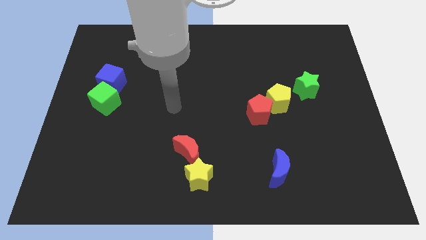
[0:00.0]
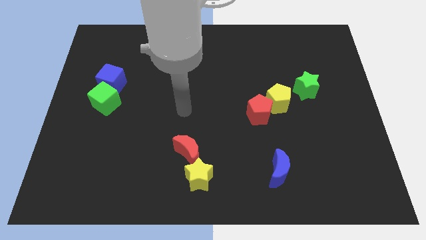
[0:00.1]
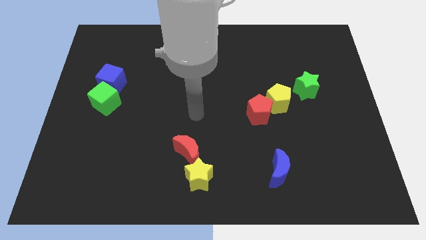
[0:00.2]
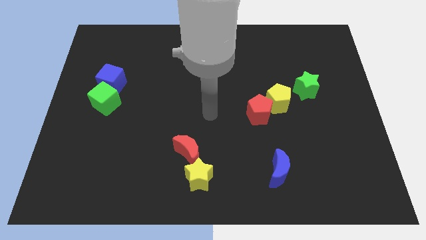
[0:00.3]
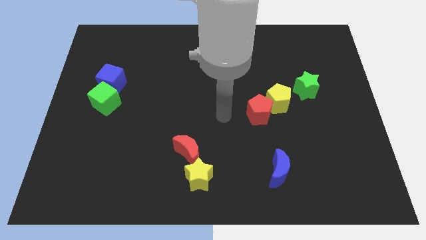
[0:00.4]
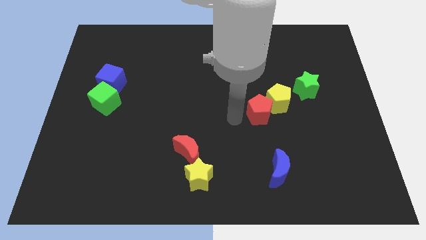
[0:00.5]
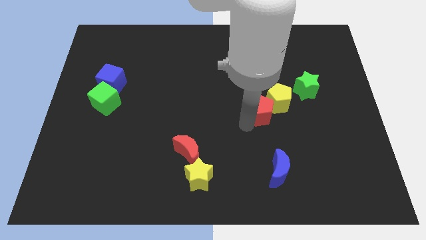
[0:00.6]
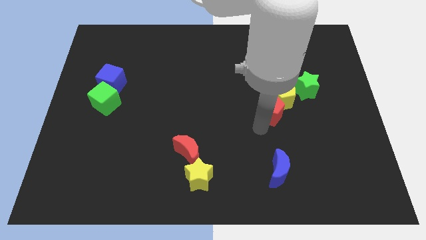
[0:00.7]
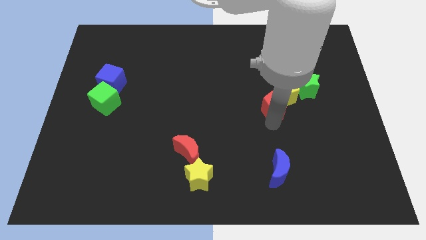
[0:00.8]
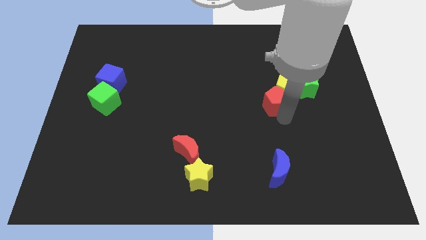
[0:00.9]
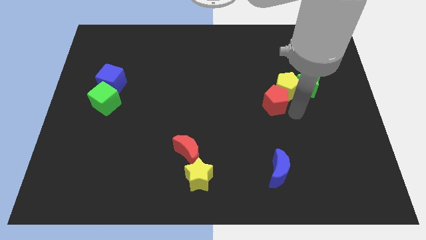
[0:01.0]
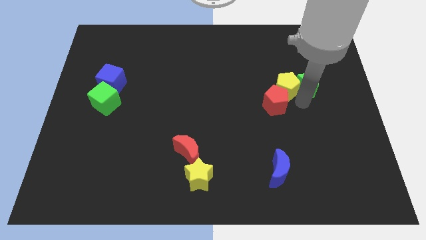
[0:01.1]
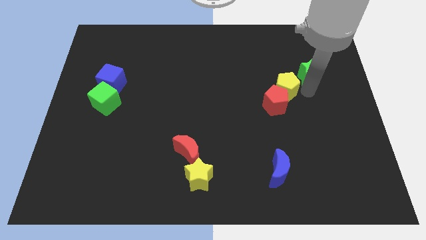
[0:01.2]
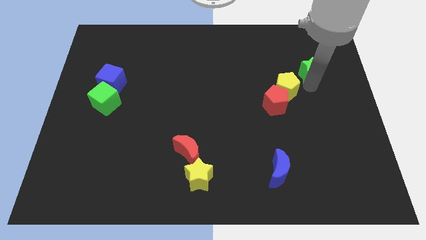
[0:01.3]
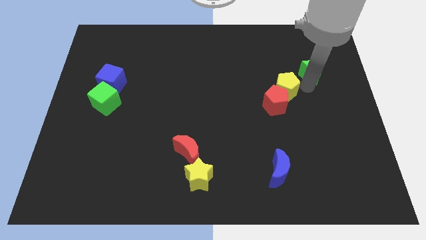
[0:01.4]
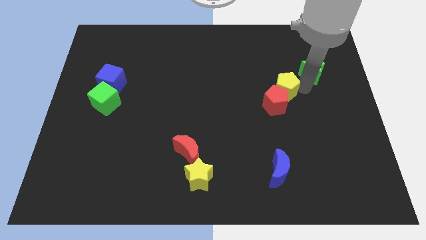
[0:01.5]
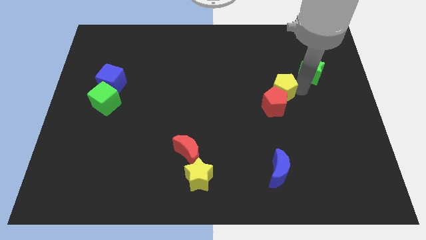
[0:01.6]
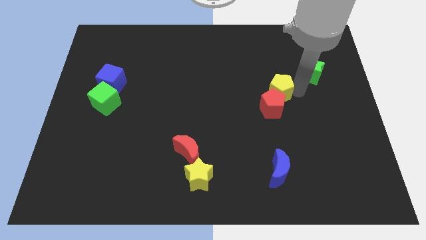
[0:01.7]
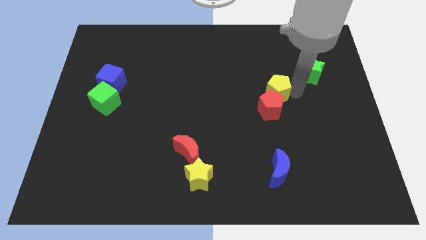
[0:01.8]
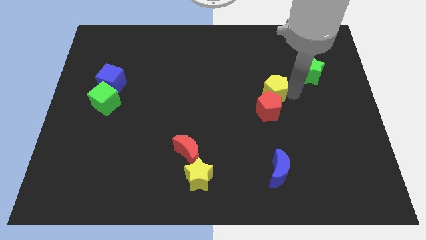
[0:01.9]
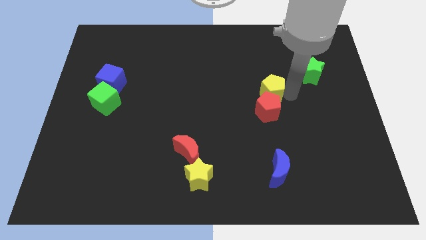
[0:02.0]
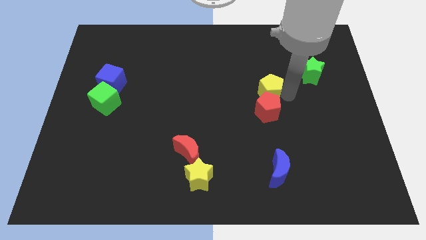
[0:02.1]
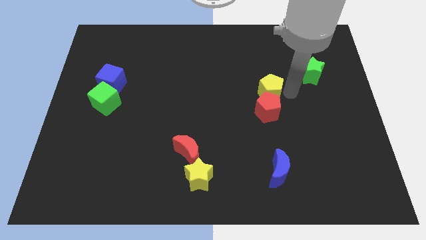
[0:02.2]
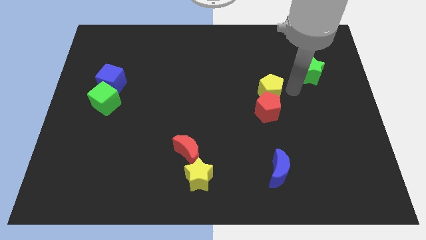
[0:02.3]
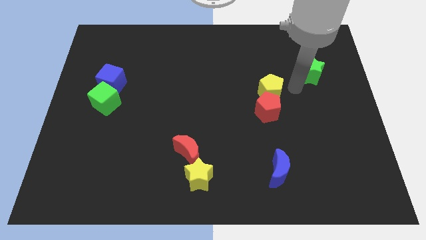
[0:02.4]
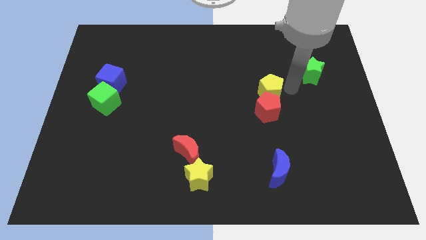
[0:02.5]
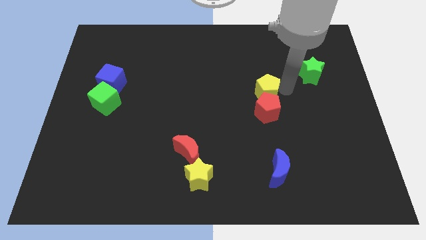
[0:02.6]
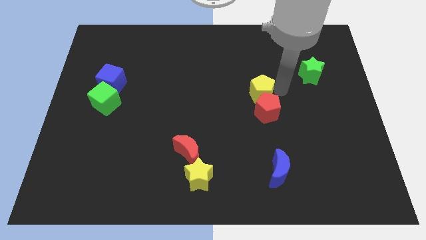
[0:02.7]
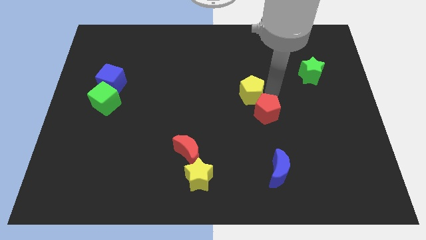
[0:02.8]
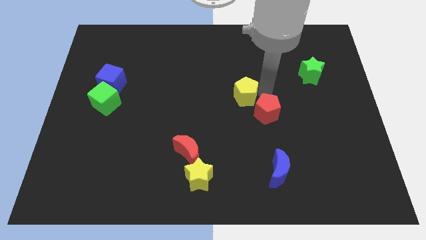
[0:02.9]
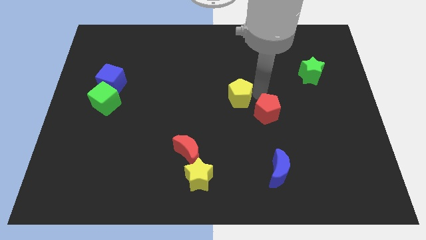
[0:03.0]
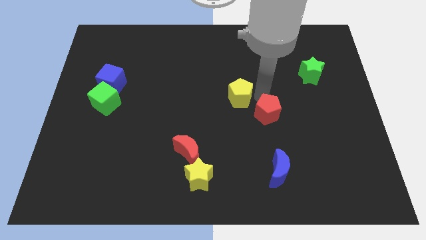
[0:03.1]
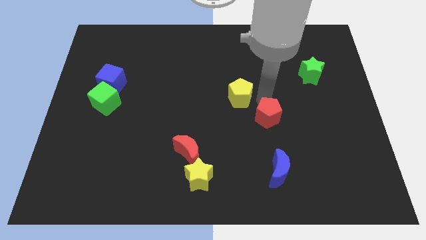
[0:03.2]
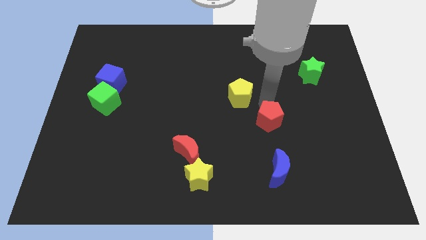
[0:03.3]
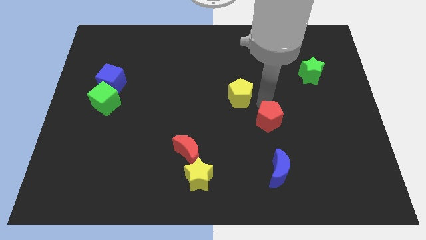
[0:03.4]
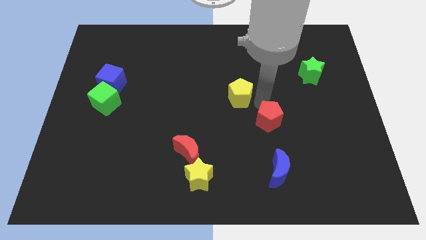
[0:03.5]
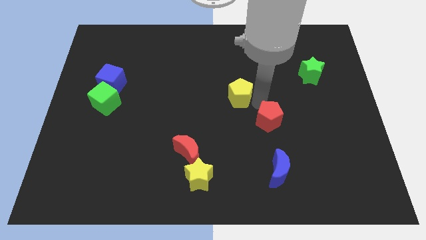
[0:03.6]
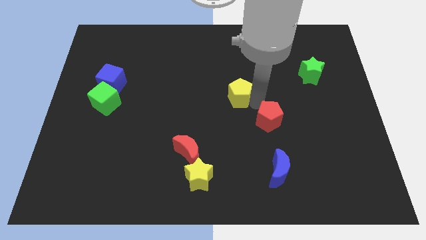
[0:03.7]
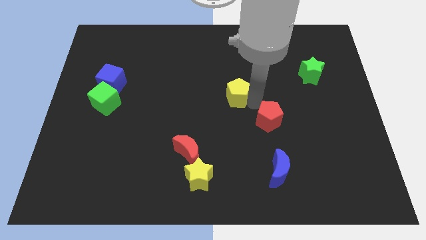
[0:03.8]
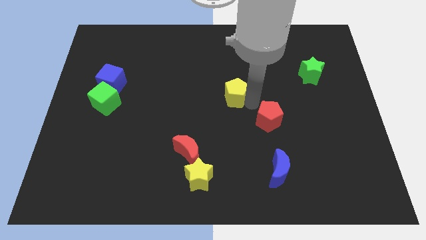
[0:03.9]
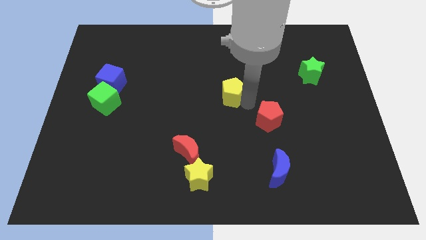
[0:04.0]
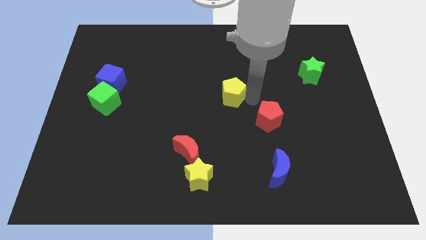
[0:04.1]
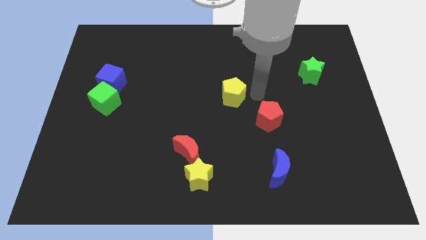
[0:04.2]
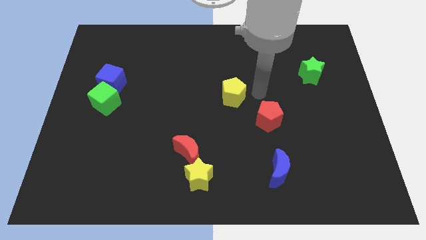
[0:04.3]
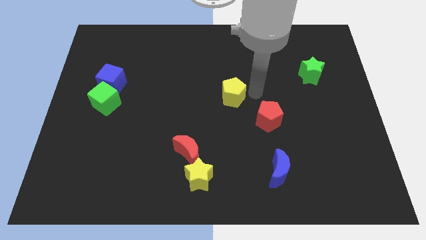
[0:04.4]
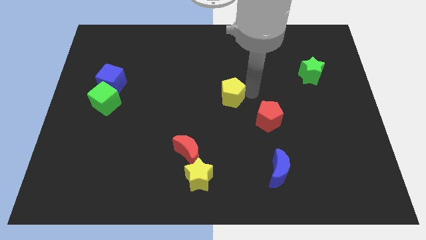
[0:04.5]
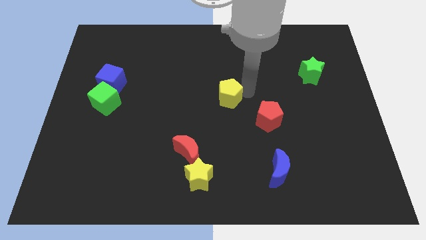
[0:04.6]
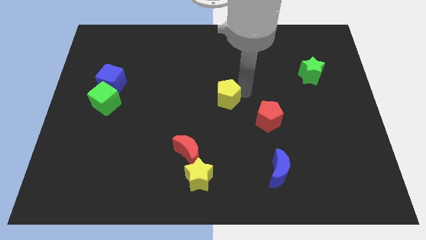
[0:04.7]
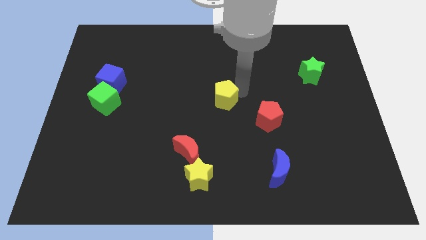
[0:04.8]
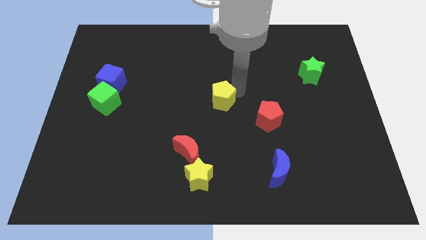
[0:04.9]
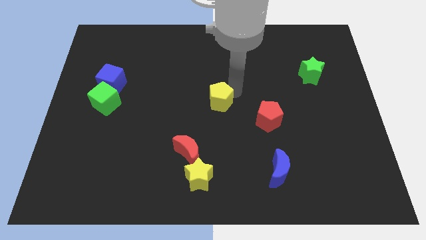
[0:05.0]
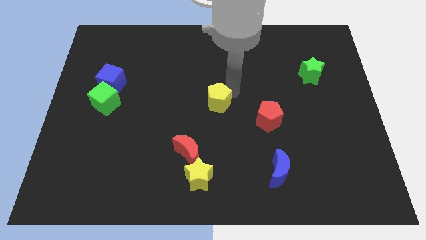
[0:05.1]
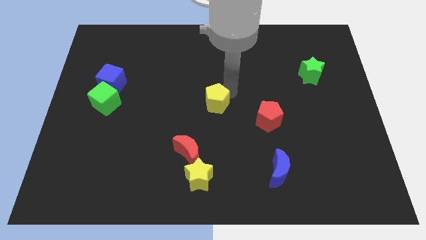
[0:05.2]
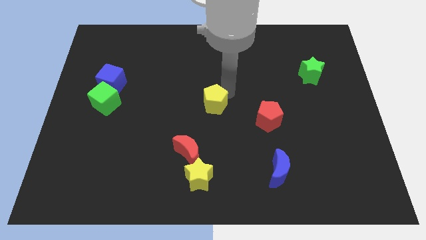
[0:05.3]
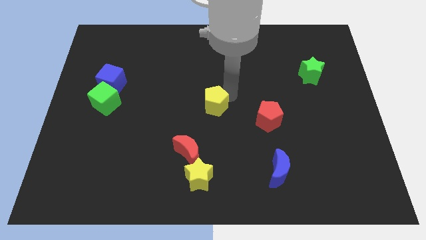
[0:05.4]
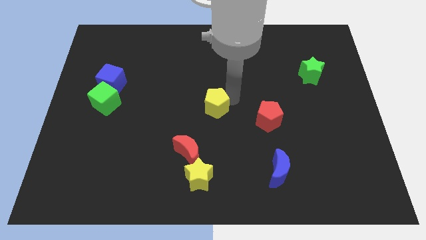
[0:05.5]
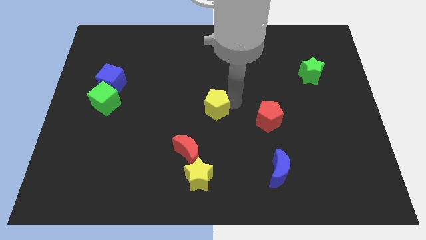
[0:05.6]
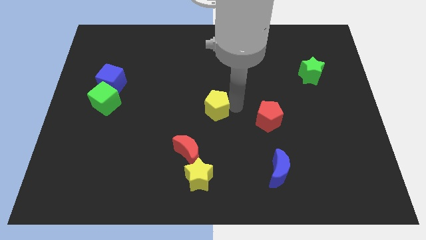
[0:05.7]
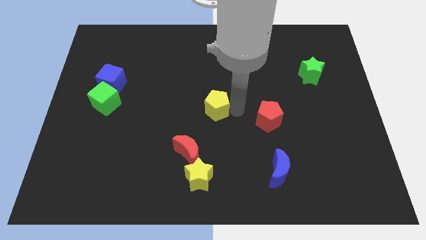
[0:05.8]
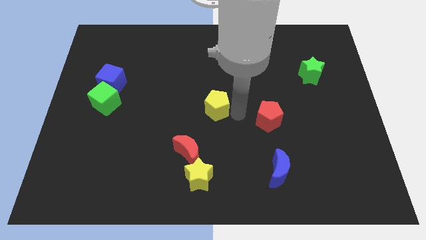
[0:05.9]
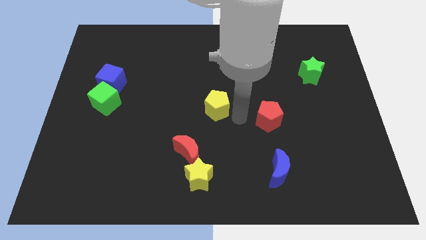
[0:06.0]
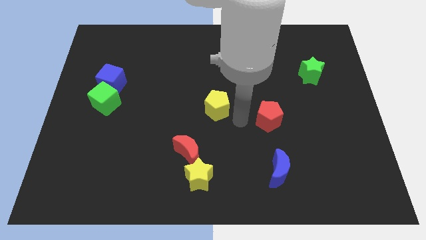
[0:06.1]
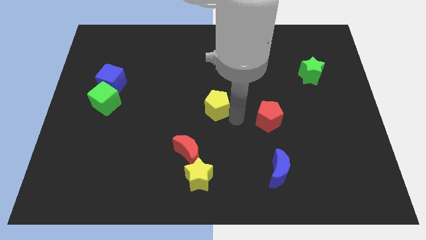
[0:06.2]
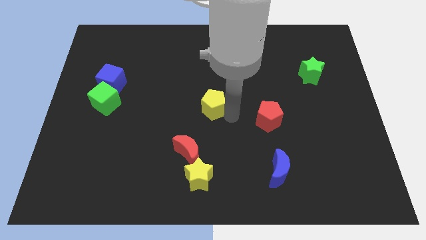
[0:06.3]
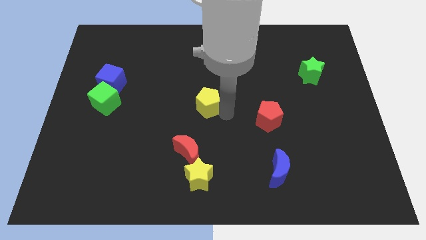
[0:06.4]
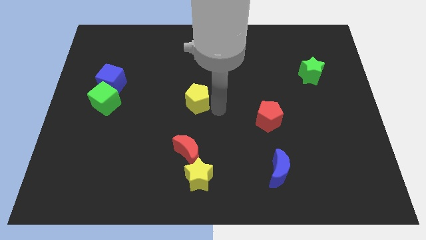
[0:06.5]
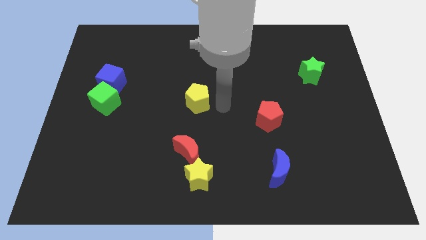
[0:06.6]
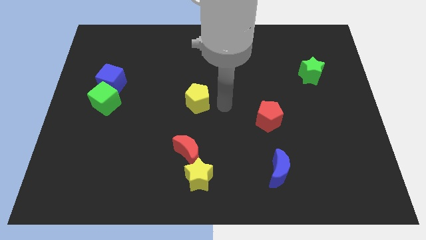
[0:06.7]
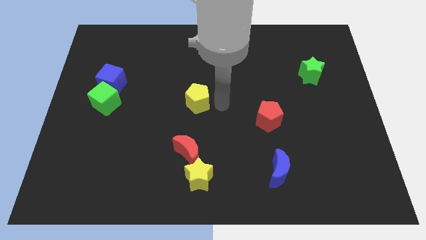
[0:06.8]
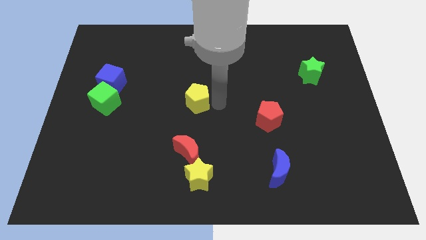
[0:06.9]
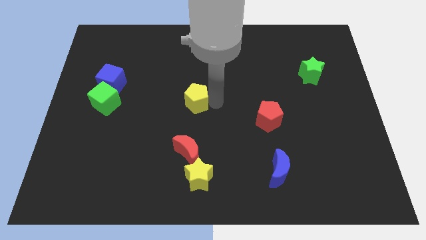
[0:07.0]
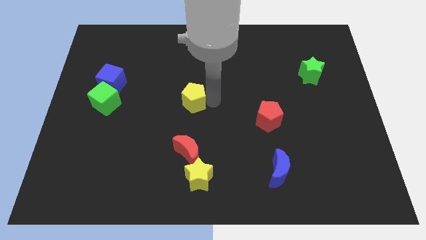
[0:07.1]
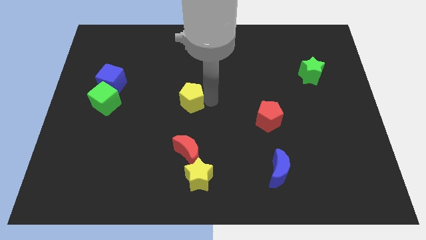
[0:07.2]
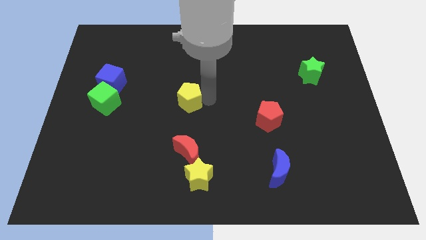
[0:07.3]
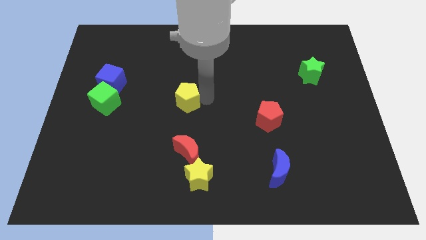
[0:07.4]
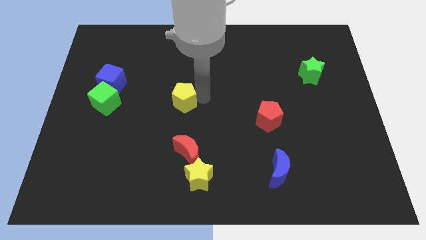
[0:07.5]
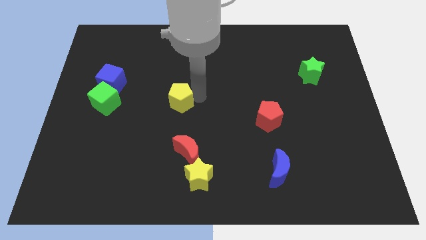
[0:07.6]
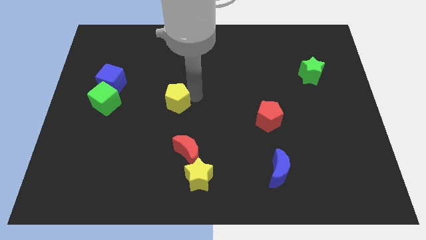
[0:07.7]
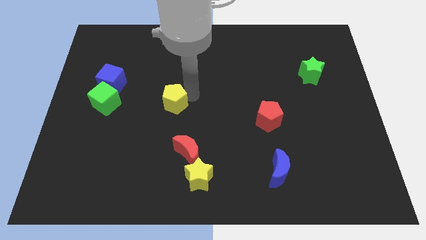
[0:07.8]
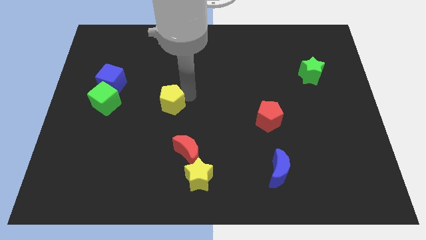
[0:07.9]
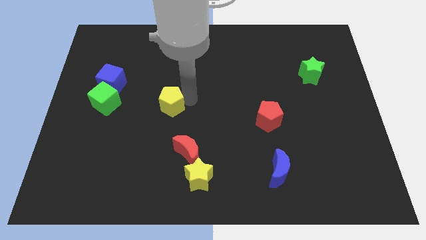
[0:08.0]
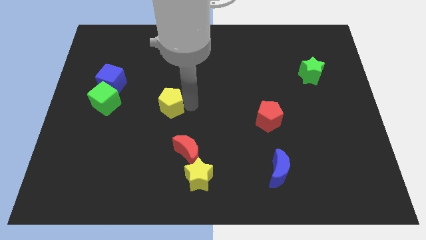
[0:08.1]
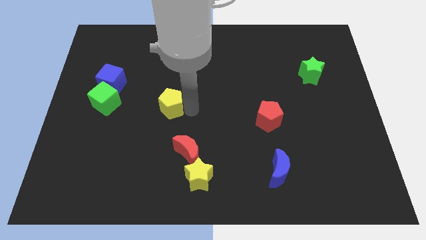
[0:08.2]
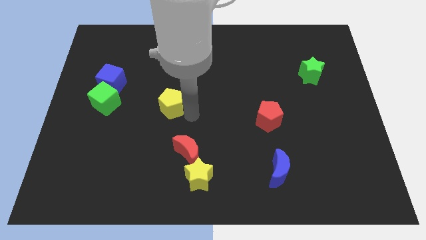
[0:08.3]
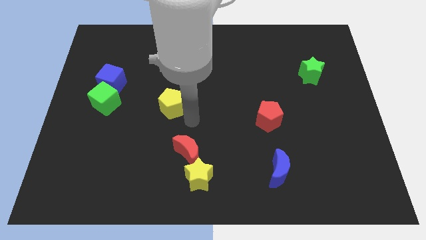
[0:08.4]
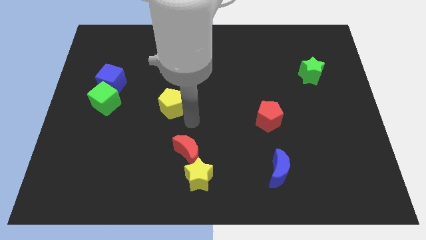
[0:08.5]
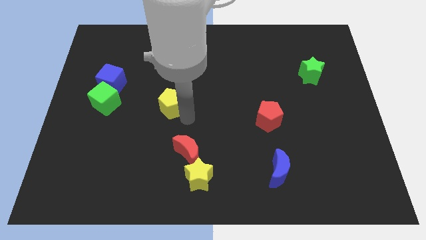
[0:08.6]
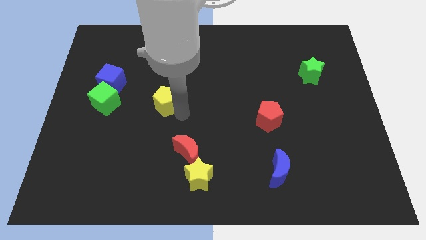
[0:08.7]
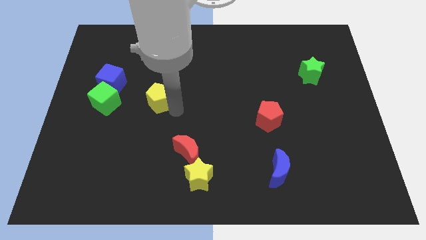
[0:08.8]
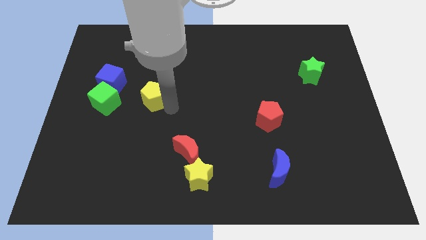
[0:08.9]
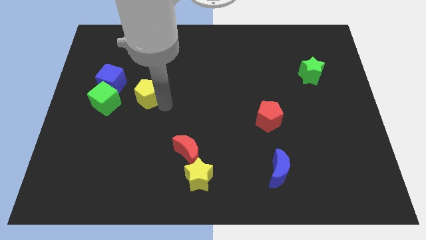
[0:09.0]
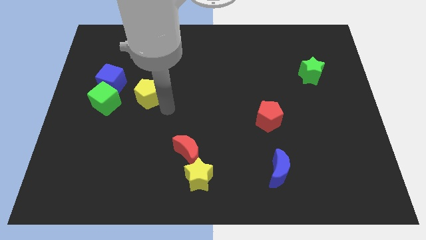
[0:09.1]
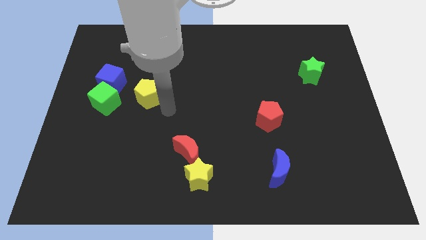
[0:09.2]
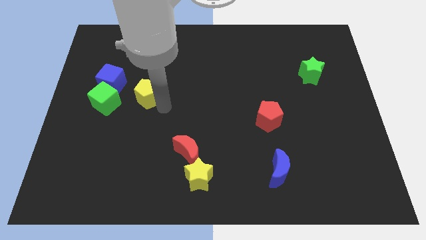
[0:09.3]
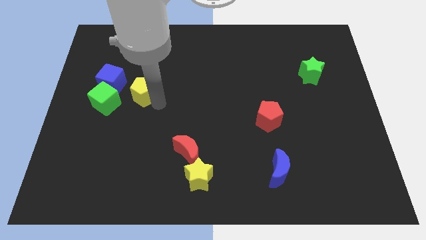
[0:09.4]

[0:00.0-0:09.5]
slide the yellow pentagon to the top right of the green cube
